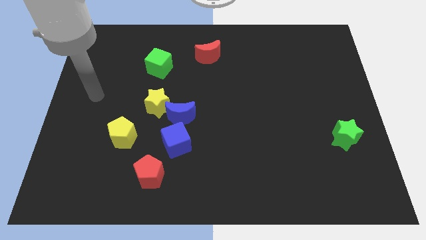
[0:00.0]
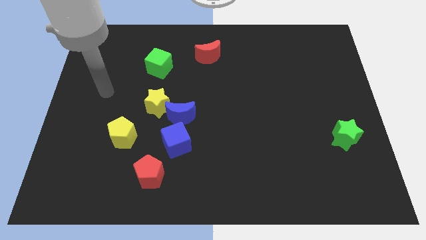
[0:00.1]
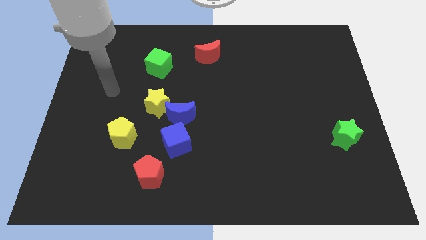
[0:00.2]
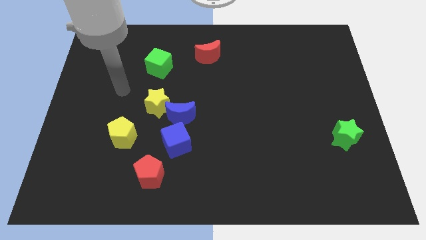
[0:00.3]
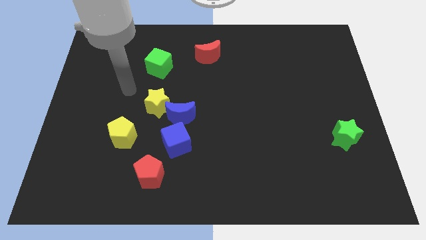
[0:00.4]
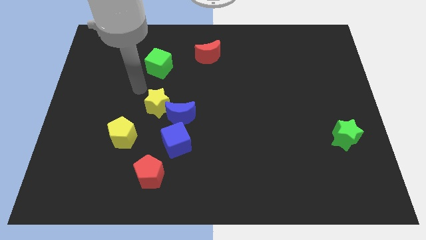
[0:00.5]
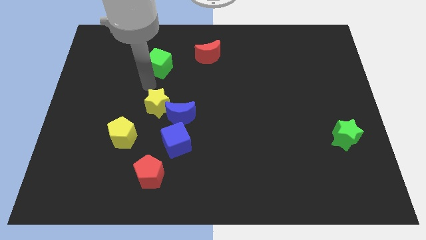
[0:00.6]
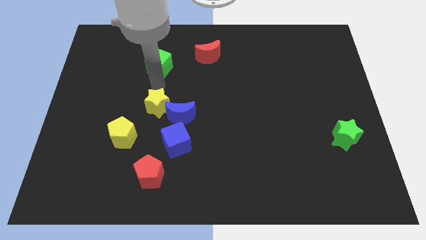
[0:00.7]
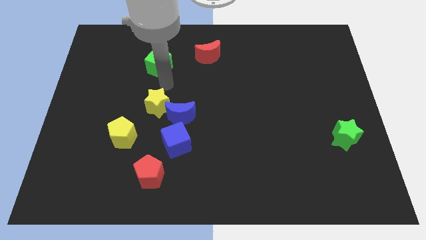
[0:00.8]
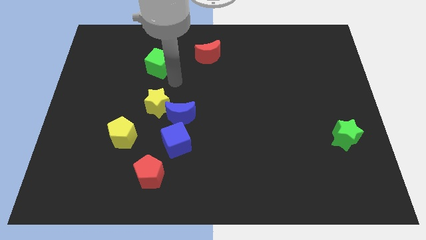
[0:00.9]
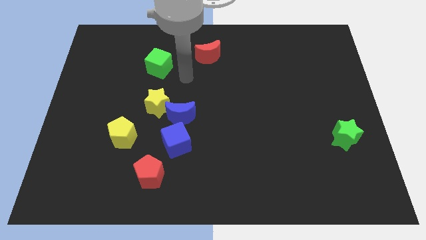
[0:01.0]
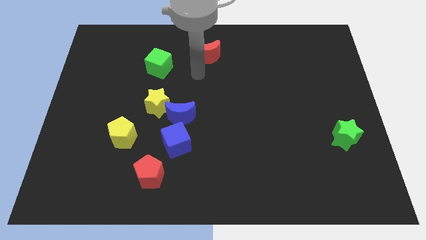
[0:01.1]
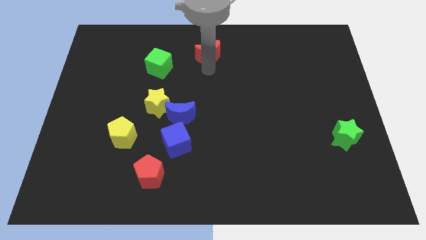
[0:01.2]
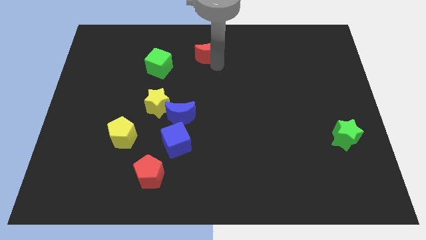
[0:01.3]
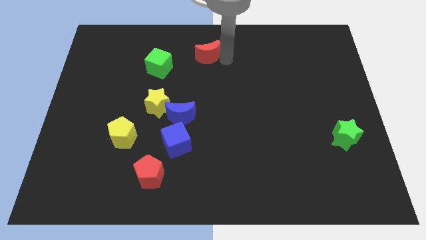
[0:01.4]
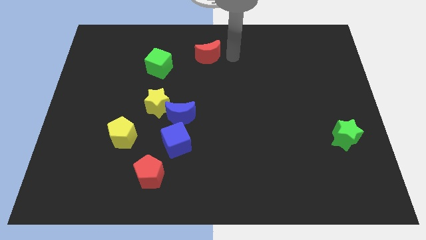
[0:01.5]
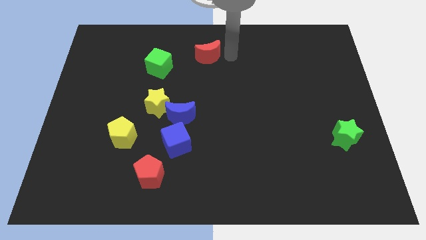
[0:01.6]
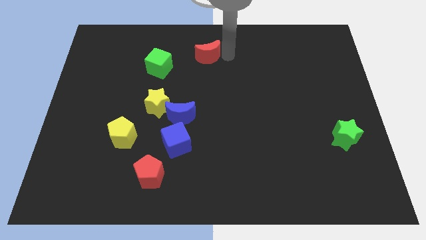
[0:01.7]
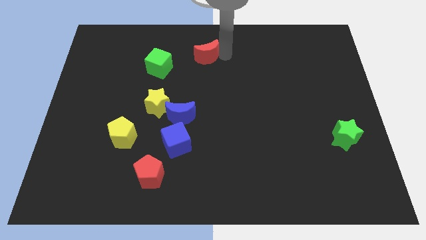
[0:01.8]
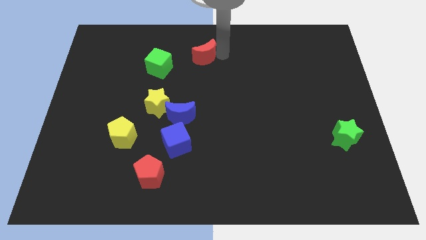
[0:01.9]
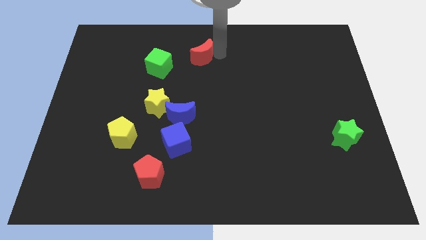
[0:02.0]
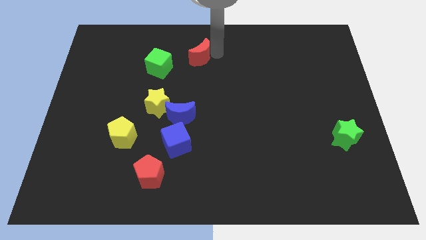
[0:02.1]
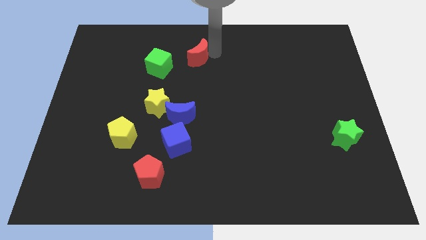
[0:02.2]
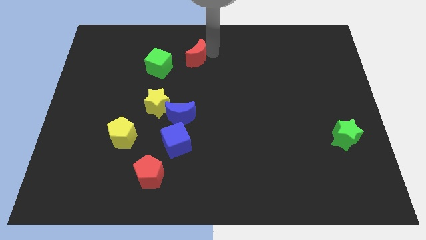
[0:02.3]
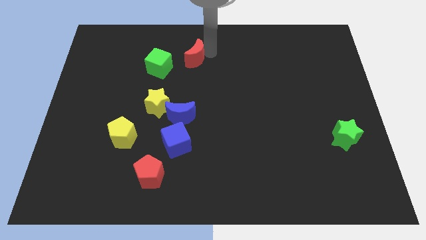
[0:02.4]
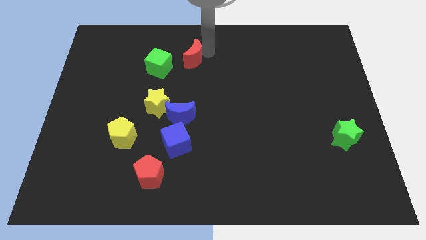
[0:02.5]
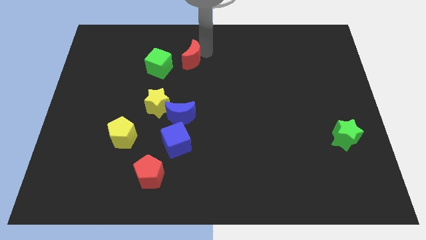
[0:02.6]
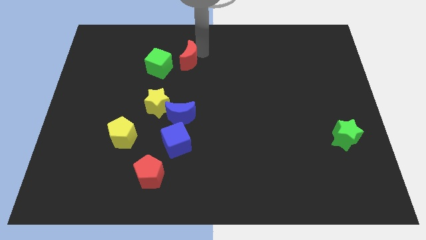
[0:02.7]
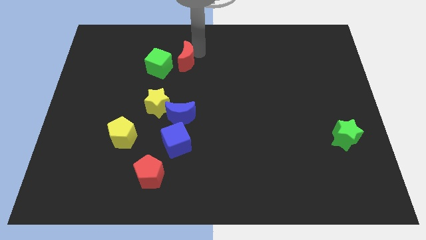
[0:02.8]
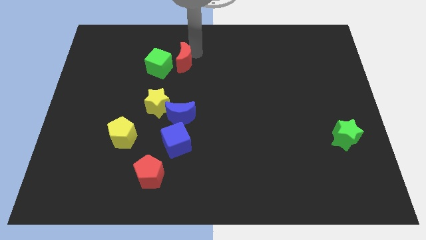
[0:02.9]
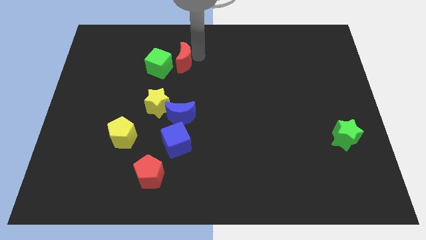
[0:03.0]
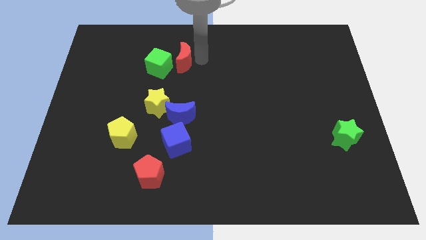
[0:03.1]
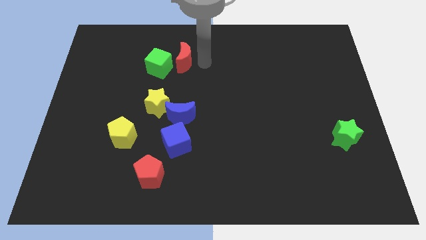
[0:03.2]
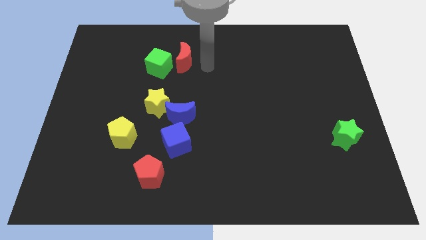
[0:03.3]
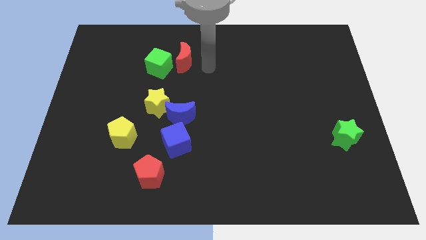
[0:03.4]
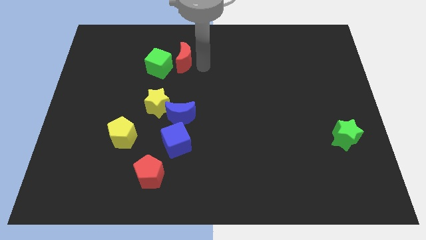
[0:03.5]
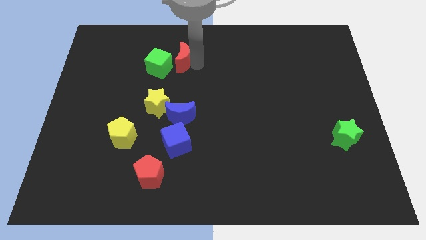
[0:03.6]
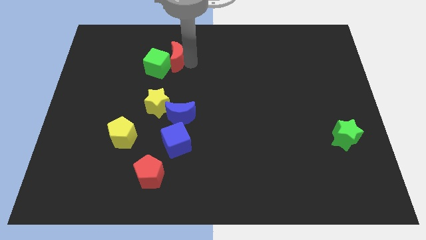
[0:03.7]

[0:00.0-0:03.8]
push the red moon to the left a little

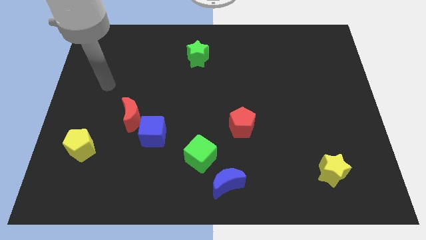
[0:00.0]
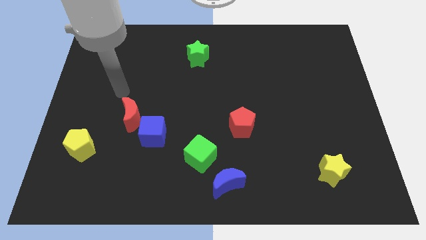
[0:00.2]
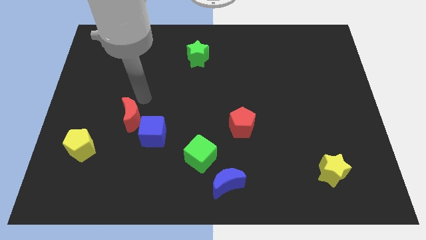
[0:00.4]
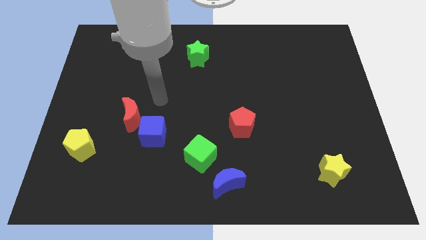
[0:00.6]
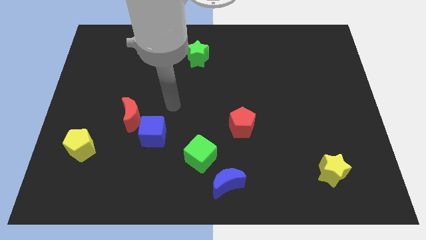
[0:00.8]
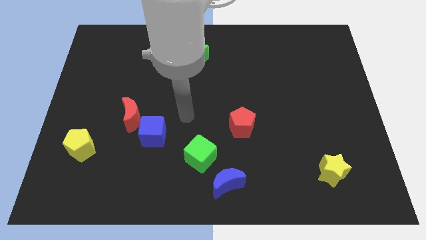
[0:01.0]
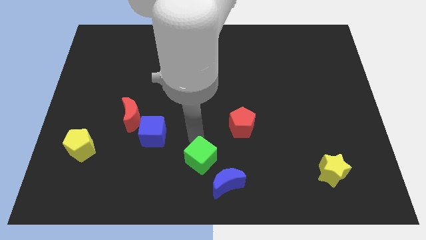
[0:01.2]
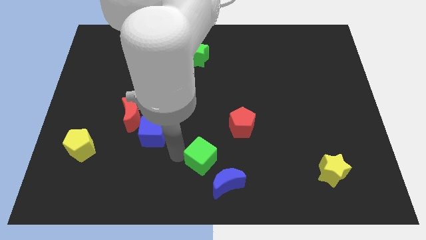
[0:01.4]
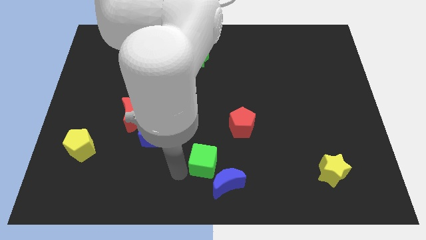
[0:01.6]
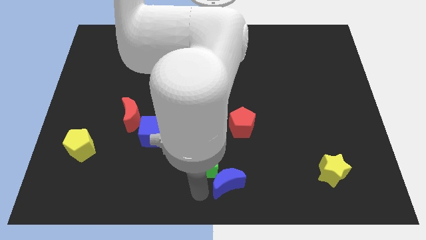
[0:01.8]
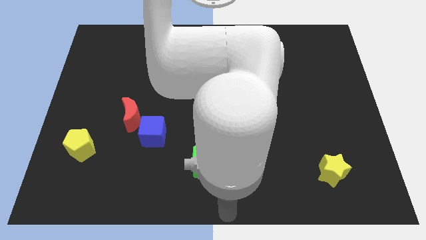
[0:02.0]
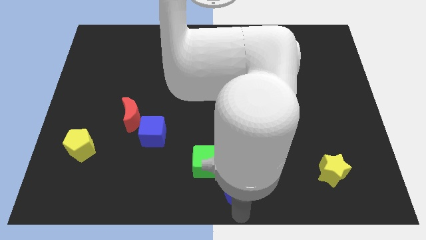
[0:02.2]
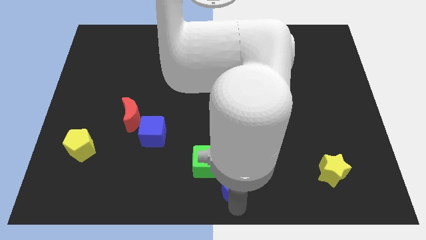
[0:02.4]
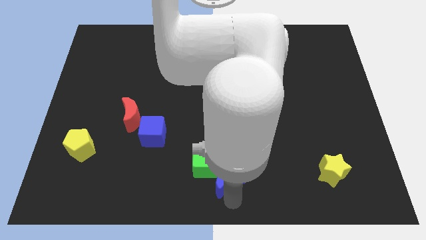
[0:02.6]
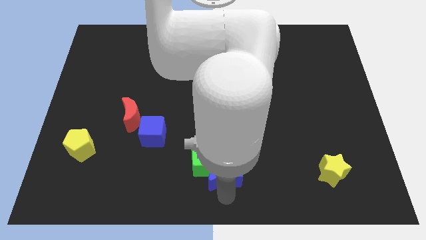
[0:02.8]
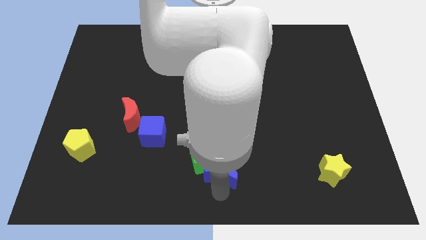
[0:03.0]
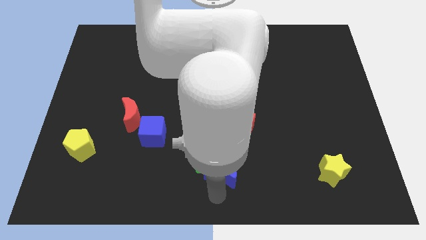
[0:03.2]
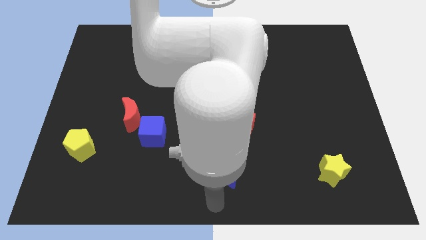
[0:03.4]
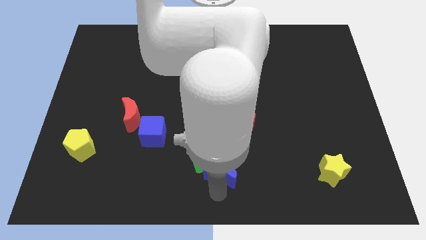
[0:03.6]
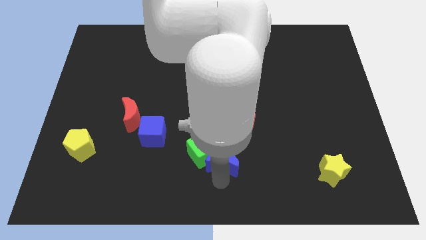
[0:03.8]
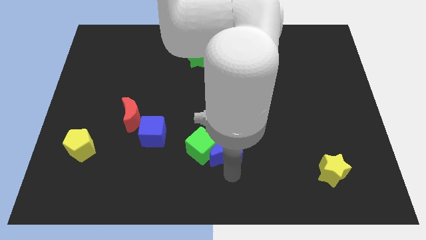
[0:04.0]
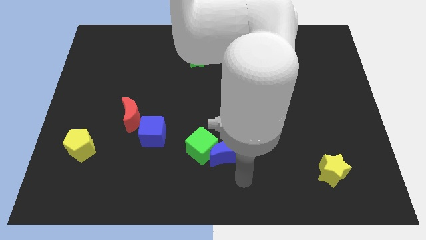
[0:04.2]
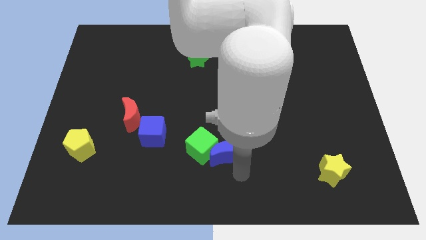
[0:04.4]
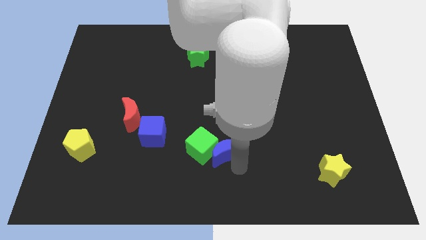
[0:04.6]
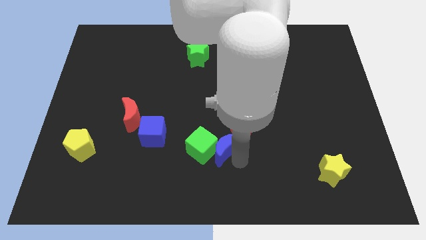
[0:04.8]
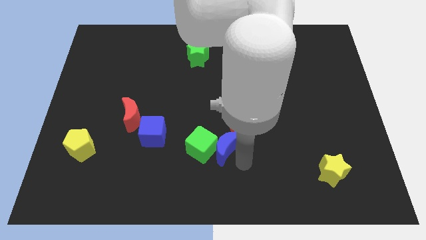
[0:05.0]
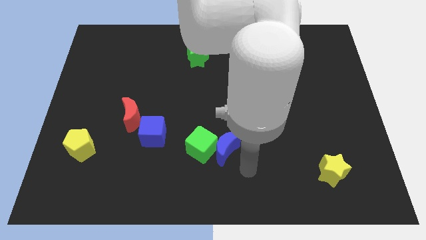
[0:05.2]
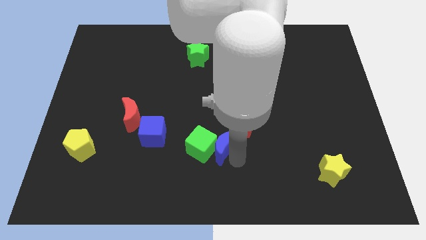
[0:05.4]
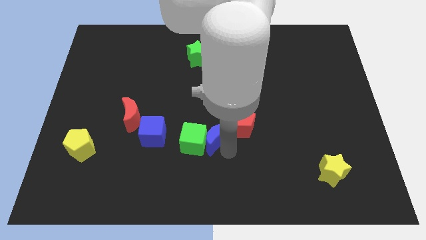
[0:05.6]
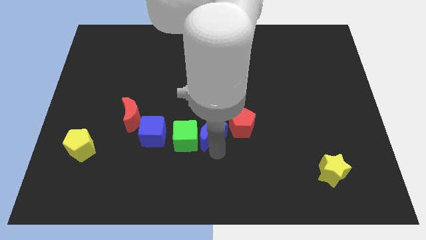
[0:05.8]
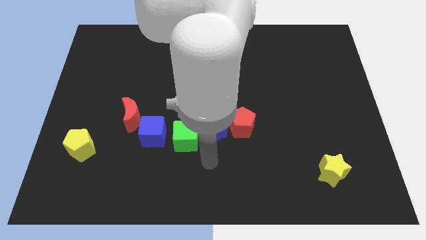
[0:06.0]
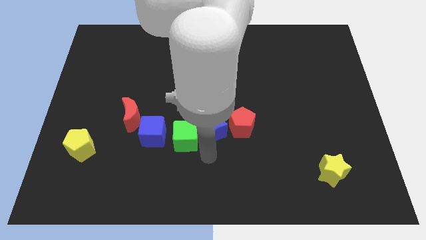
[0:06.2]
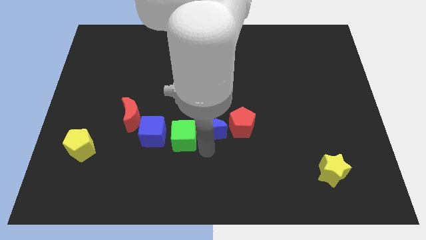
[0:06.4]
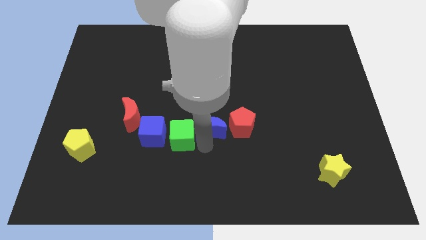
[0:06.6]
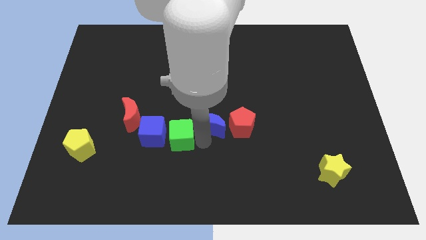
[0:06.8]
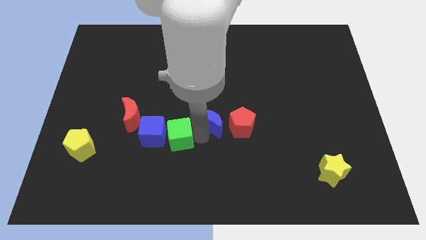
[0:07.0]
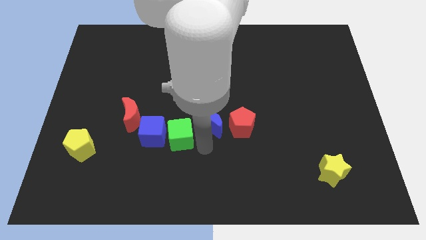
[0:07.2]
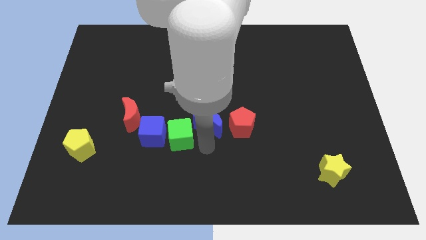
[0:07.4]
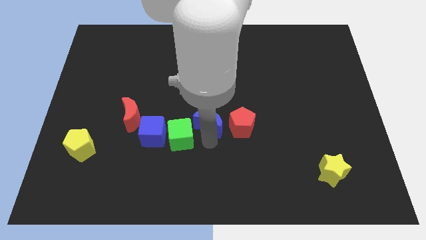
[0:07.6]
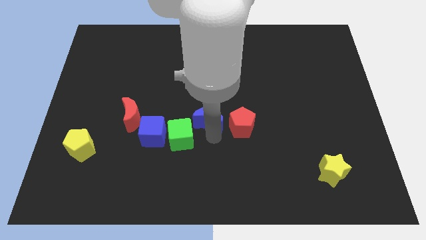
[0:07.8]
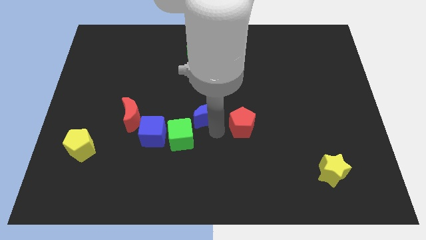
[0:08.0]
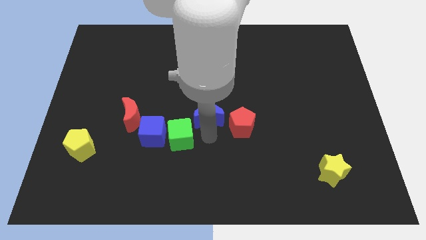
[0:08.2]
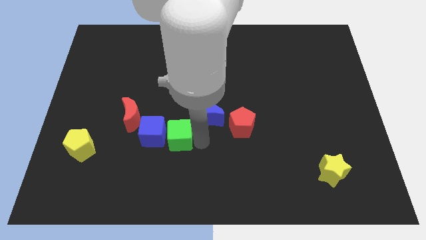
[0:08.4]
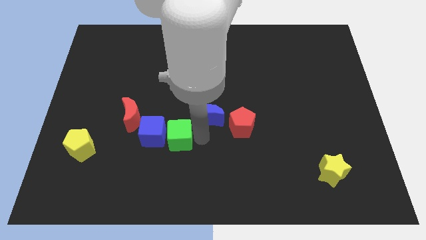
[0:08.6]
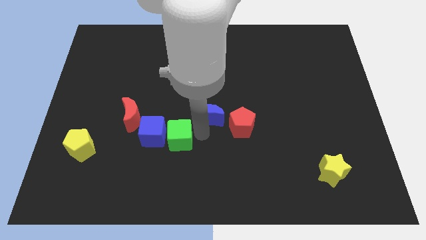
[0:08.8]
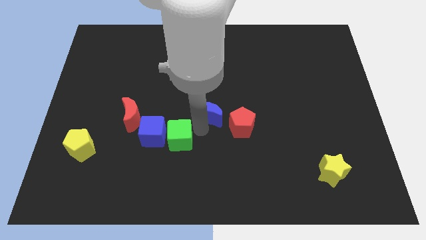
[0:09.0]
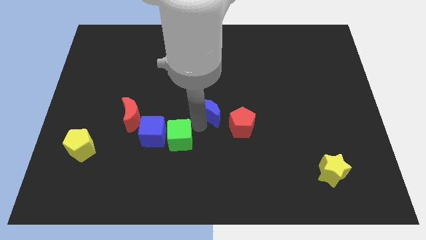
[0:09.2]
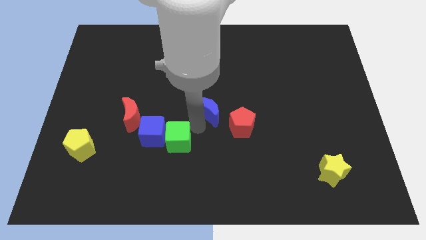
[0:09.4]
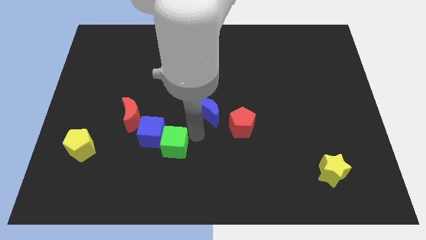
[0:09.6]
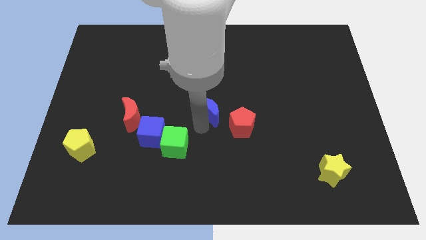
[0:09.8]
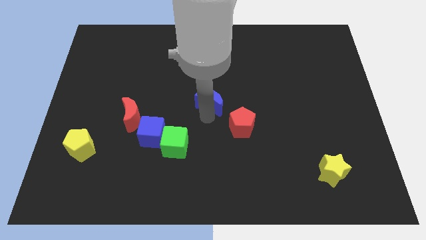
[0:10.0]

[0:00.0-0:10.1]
move the blue moon upwards
